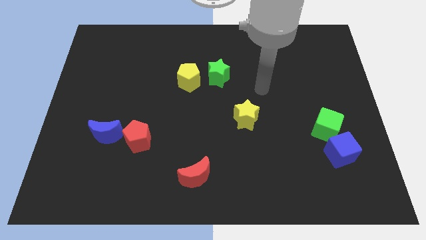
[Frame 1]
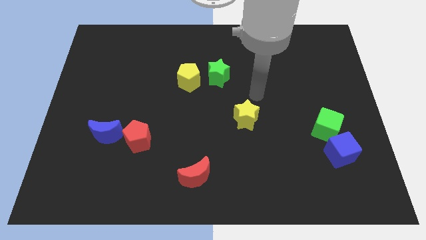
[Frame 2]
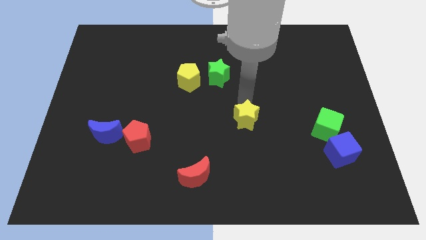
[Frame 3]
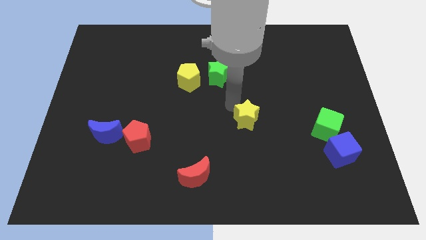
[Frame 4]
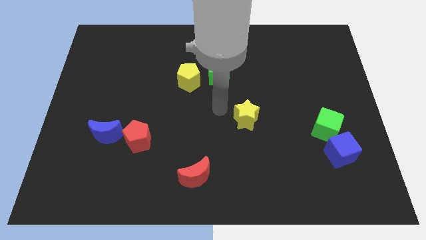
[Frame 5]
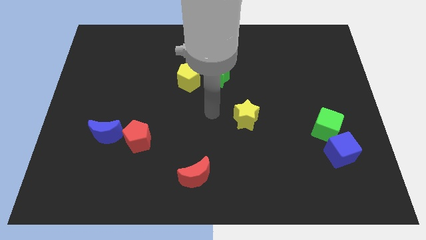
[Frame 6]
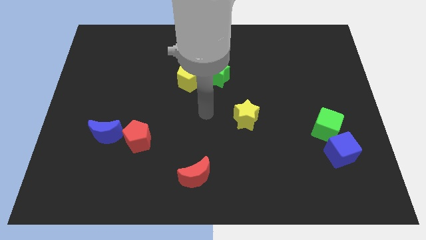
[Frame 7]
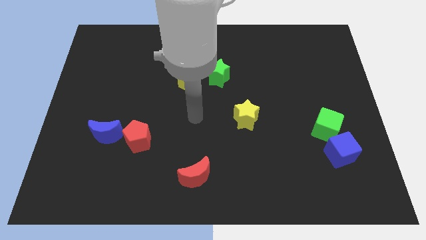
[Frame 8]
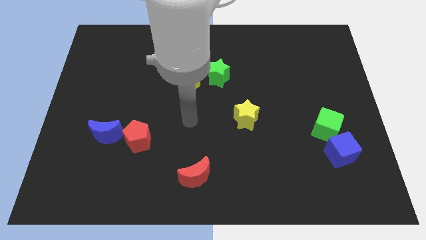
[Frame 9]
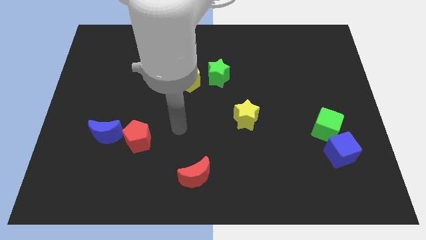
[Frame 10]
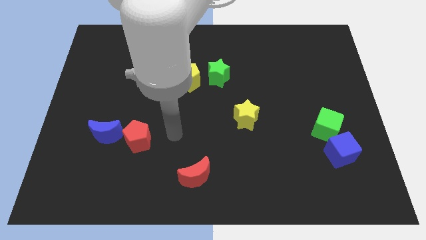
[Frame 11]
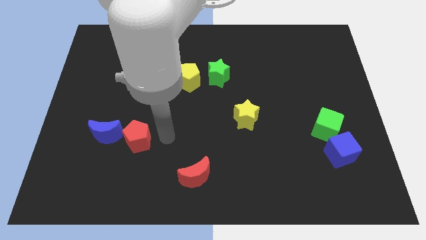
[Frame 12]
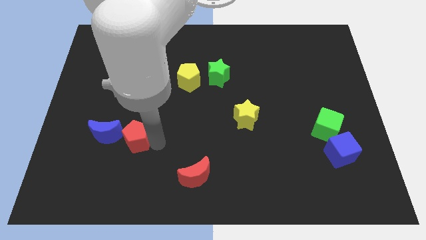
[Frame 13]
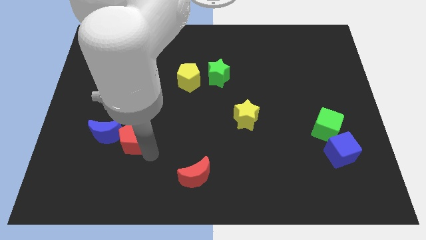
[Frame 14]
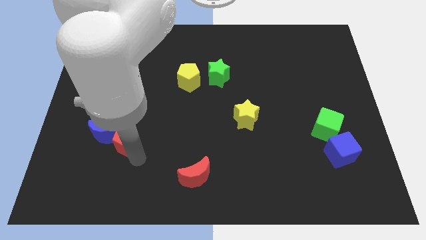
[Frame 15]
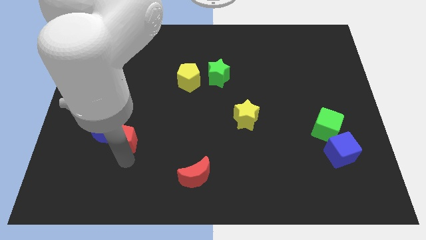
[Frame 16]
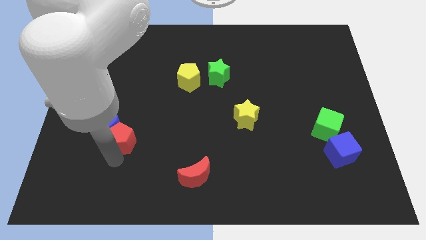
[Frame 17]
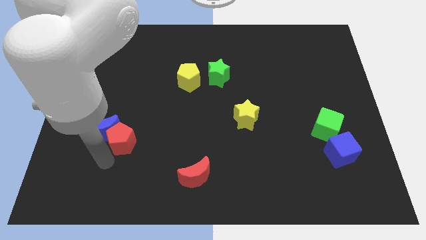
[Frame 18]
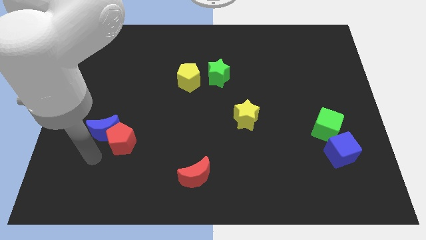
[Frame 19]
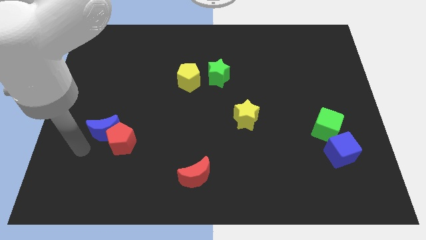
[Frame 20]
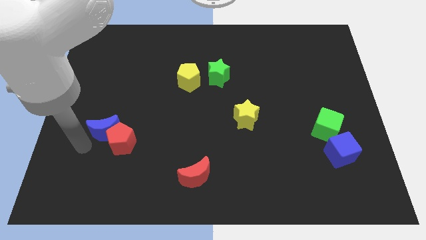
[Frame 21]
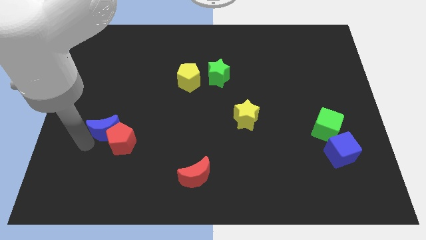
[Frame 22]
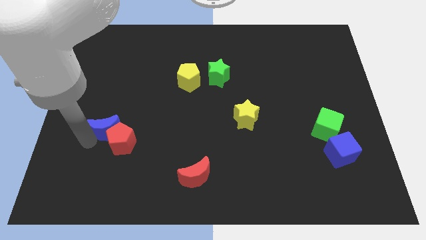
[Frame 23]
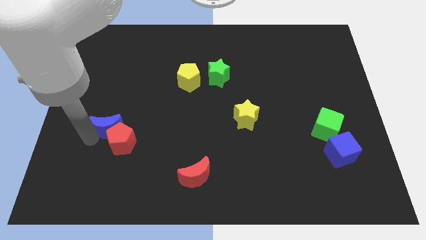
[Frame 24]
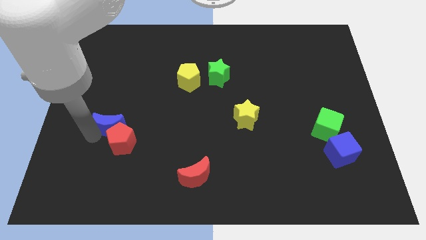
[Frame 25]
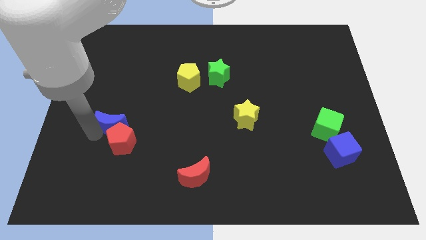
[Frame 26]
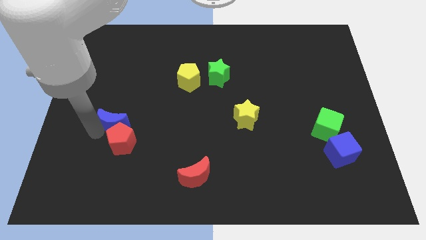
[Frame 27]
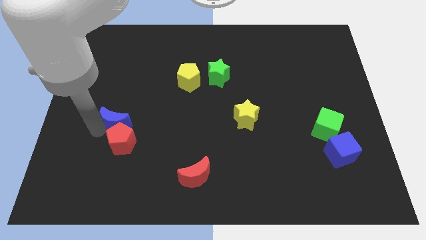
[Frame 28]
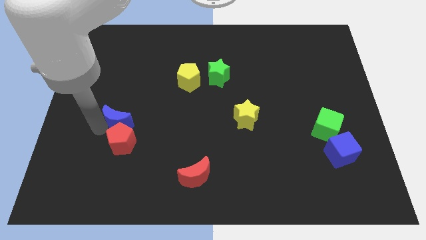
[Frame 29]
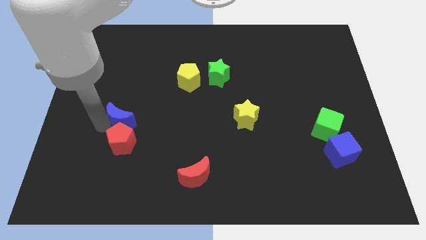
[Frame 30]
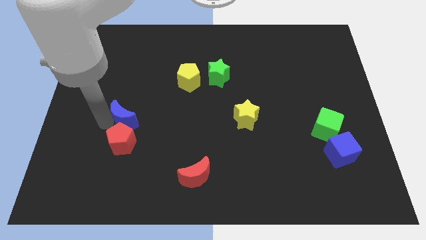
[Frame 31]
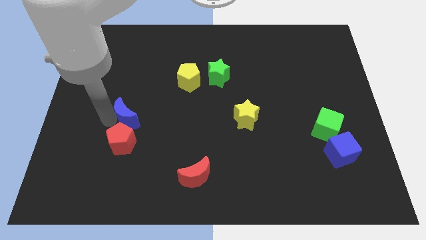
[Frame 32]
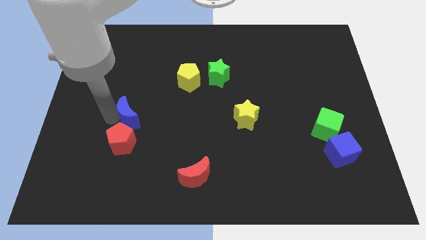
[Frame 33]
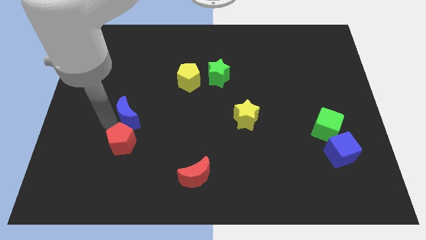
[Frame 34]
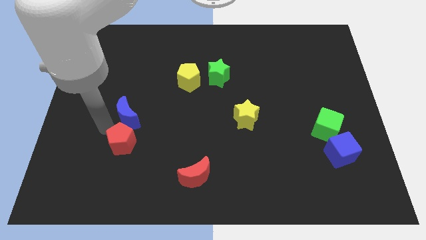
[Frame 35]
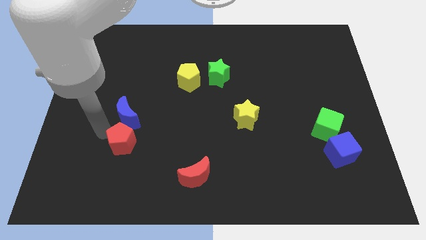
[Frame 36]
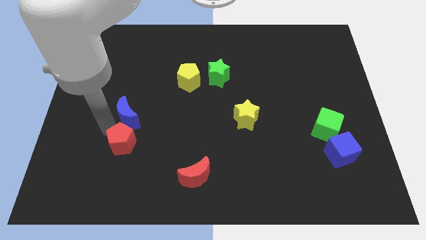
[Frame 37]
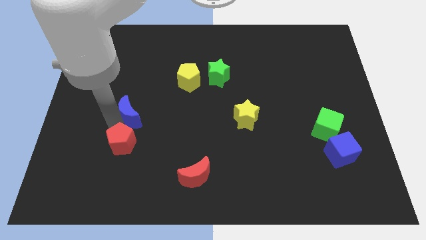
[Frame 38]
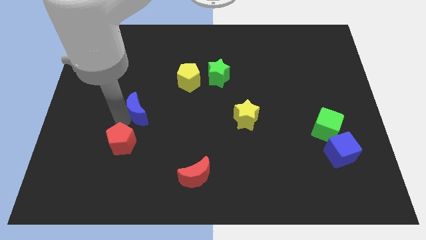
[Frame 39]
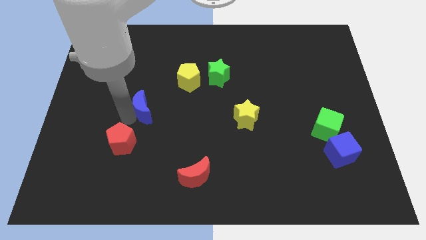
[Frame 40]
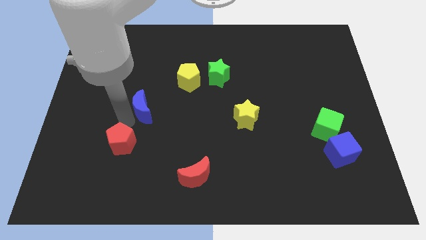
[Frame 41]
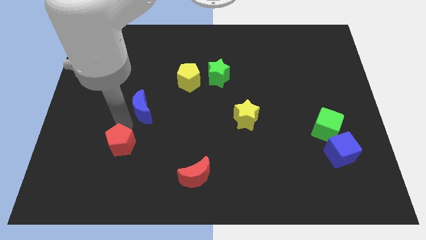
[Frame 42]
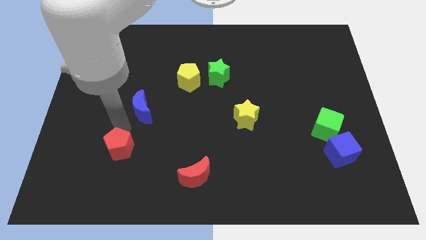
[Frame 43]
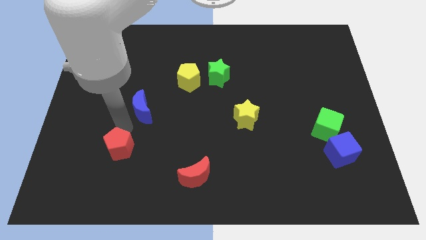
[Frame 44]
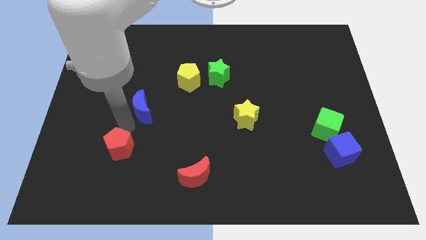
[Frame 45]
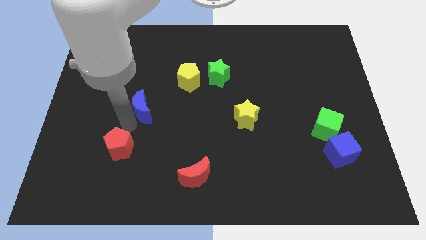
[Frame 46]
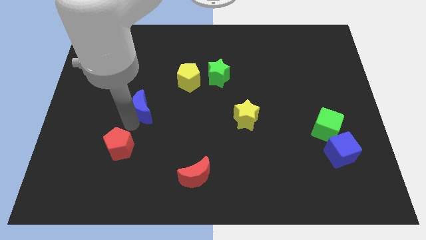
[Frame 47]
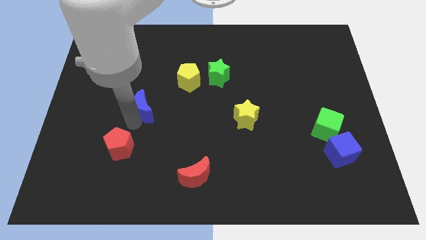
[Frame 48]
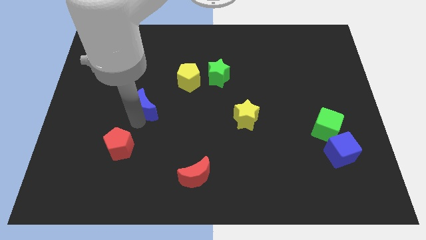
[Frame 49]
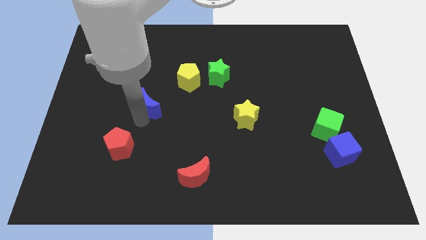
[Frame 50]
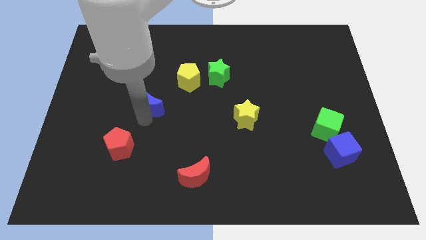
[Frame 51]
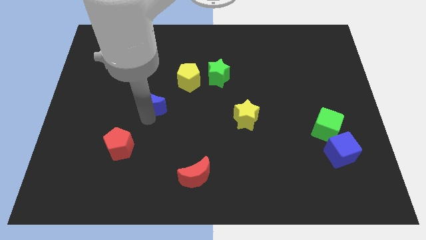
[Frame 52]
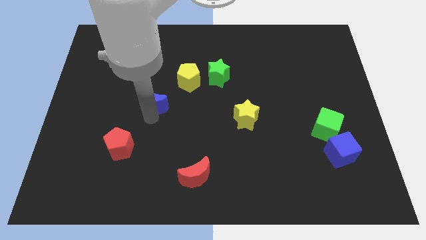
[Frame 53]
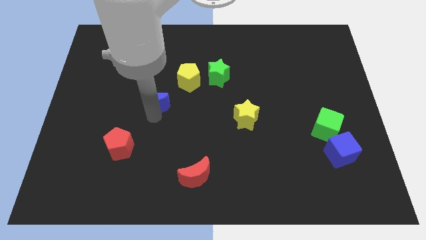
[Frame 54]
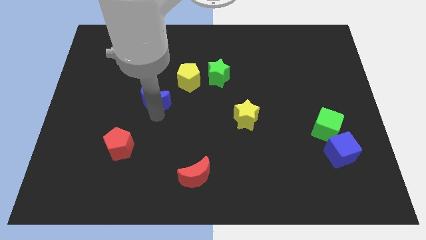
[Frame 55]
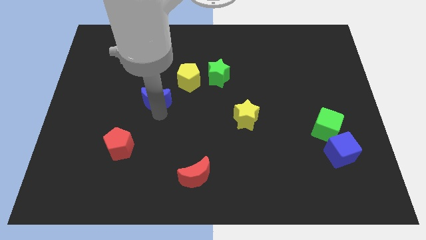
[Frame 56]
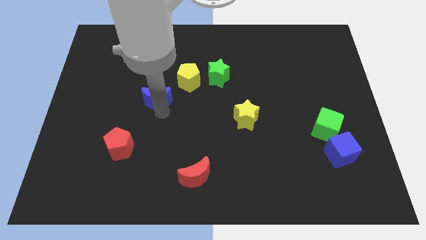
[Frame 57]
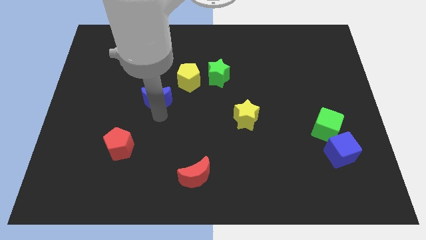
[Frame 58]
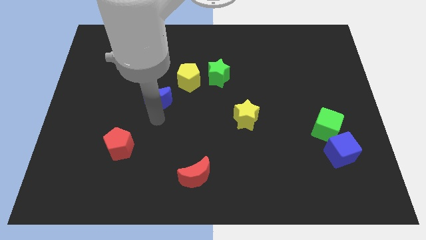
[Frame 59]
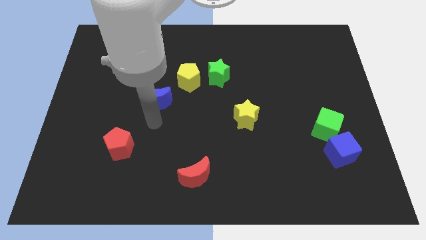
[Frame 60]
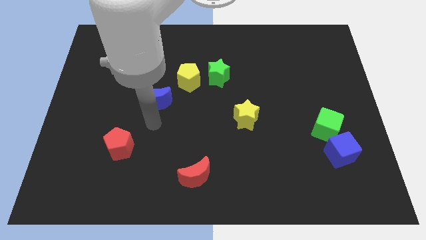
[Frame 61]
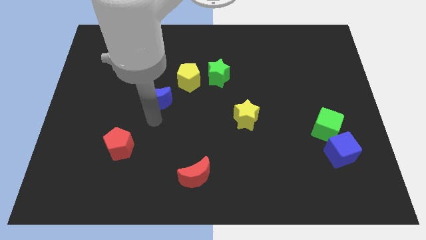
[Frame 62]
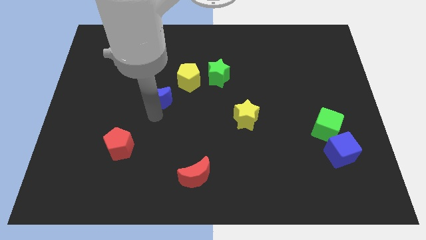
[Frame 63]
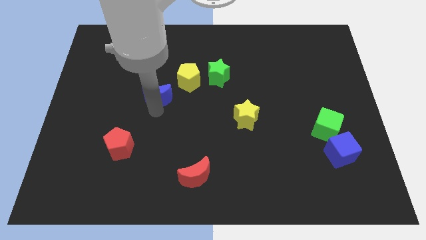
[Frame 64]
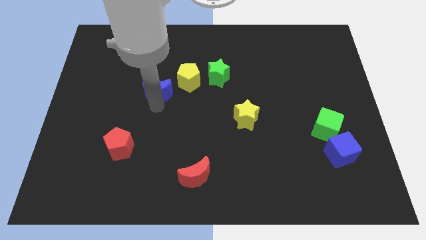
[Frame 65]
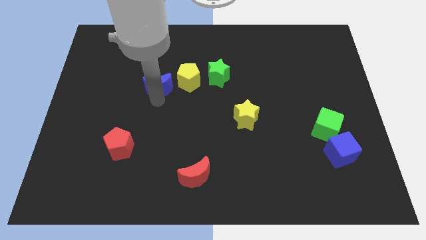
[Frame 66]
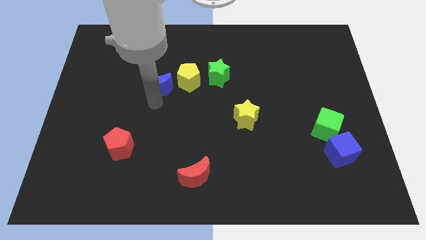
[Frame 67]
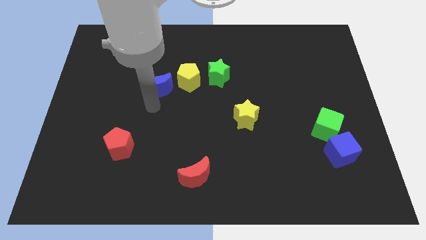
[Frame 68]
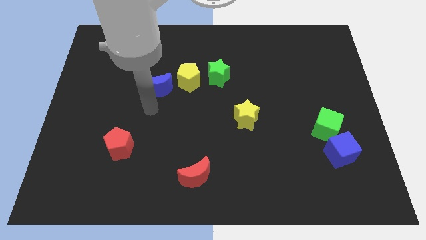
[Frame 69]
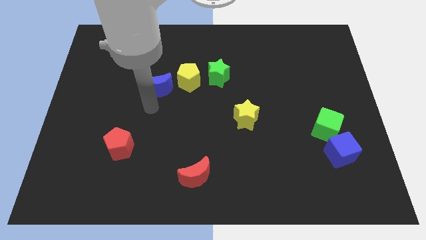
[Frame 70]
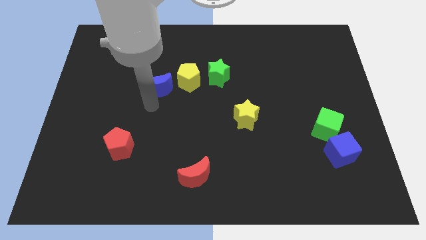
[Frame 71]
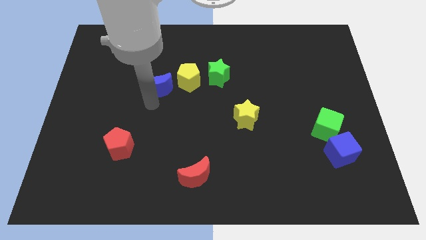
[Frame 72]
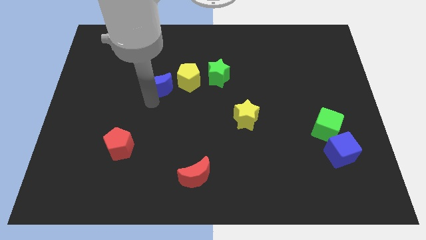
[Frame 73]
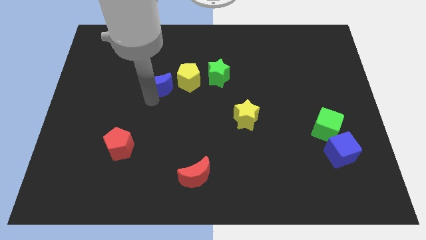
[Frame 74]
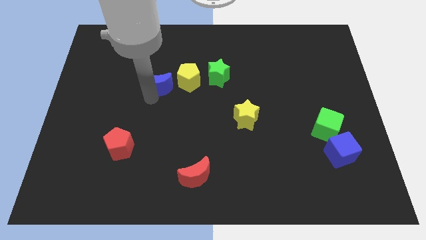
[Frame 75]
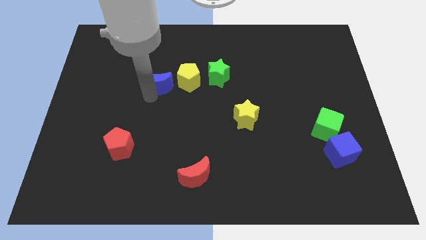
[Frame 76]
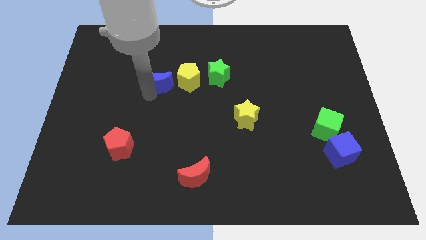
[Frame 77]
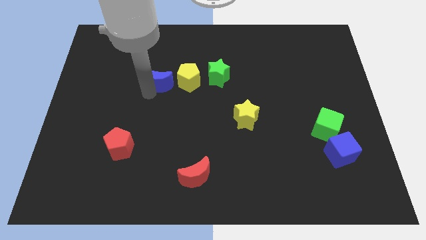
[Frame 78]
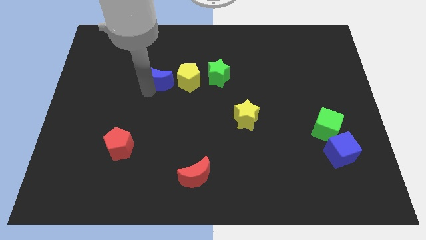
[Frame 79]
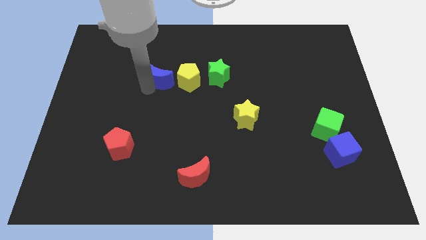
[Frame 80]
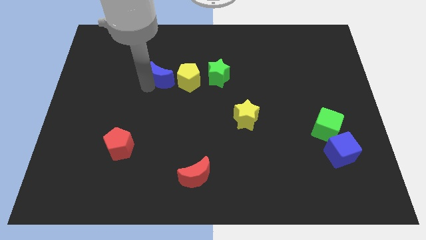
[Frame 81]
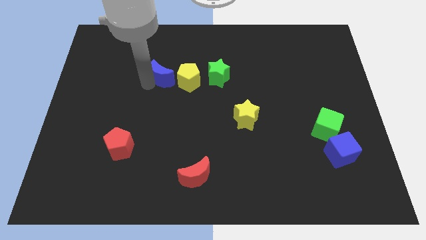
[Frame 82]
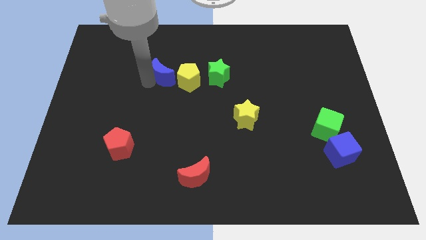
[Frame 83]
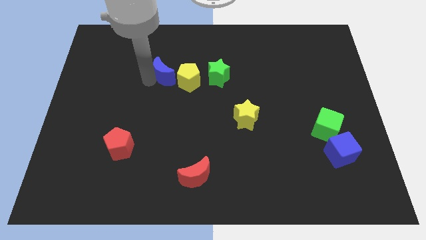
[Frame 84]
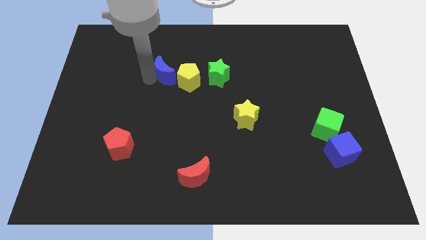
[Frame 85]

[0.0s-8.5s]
move the blue moon upwards and to the right diagonally
